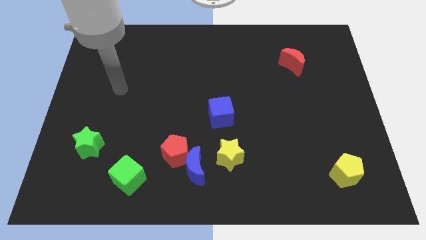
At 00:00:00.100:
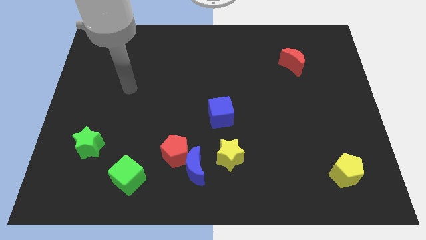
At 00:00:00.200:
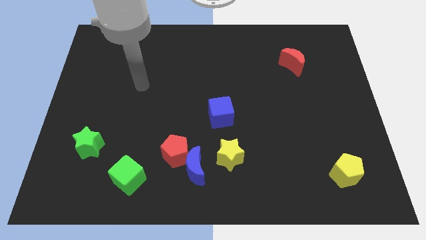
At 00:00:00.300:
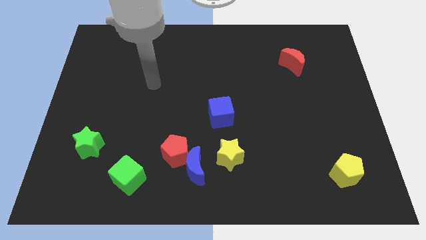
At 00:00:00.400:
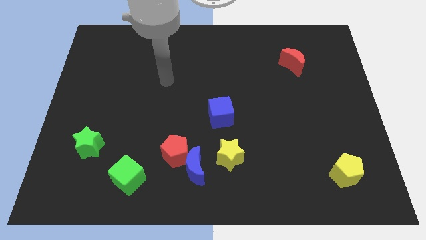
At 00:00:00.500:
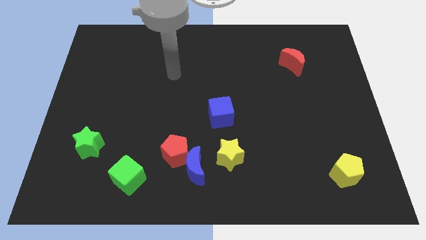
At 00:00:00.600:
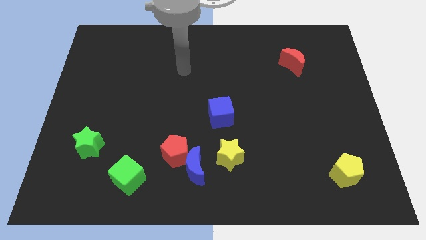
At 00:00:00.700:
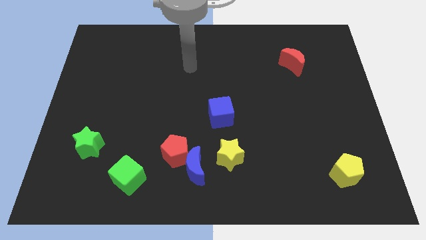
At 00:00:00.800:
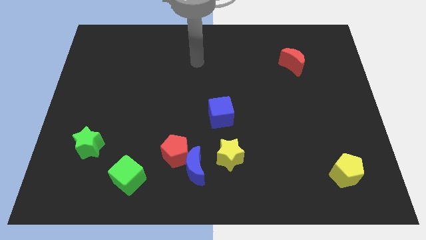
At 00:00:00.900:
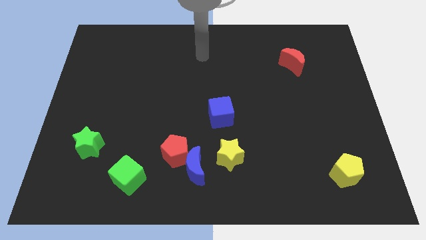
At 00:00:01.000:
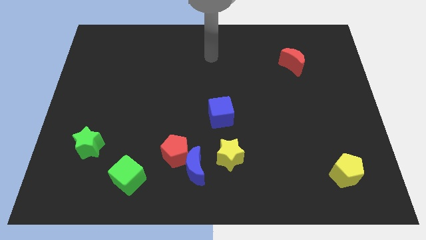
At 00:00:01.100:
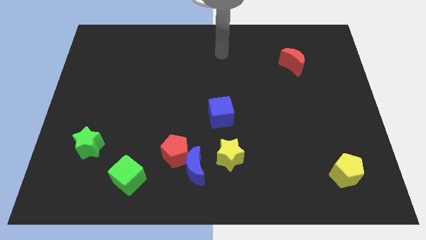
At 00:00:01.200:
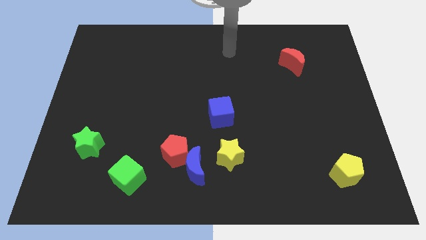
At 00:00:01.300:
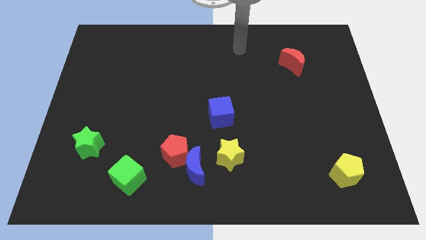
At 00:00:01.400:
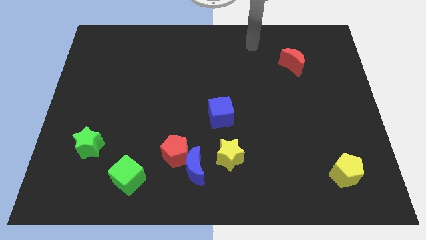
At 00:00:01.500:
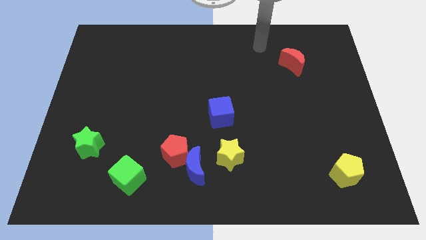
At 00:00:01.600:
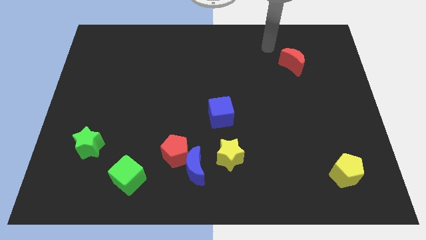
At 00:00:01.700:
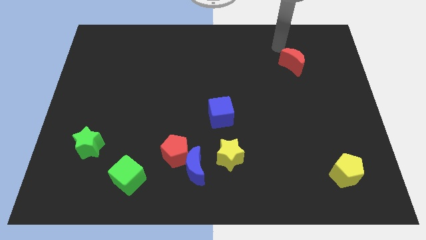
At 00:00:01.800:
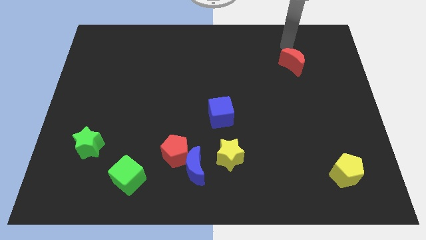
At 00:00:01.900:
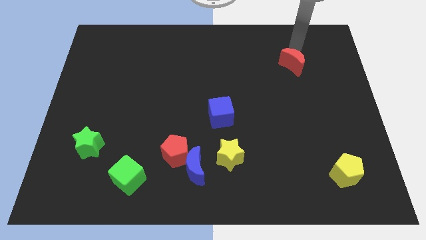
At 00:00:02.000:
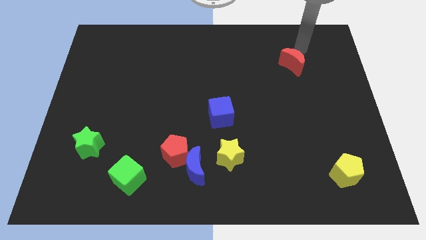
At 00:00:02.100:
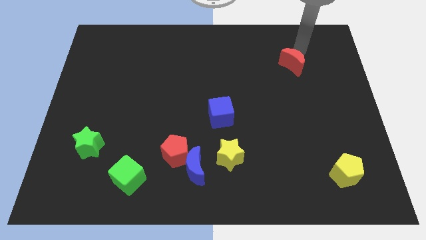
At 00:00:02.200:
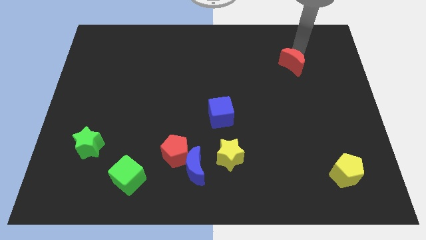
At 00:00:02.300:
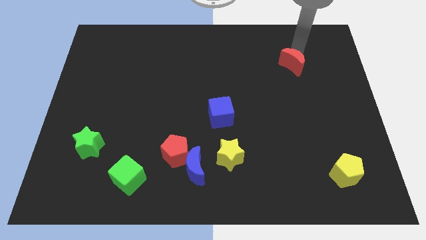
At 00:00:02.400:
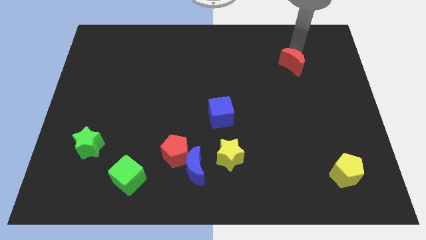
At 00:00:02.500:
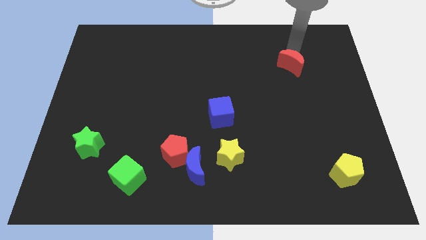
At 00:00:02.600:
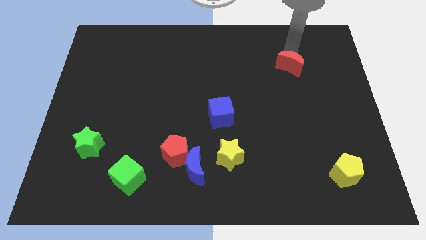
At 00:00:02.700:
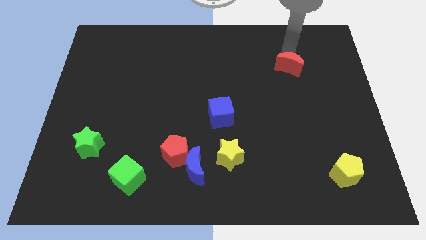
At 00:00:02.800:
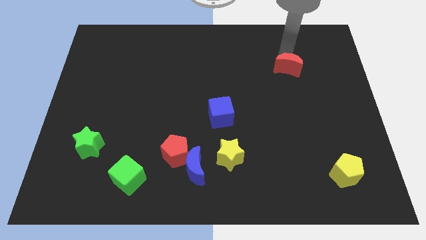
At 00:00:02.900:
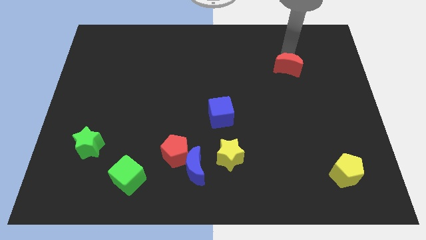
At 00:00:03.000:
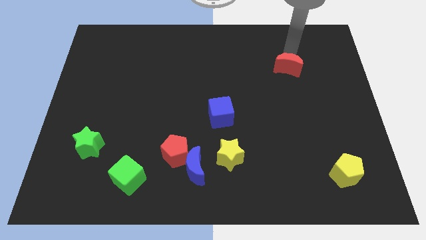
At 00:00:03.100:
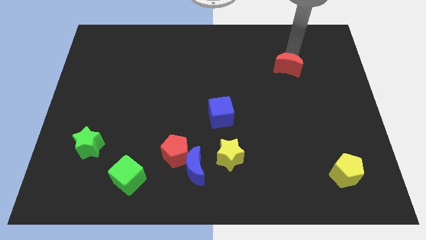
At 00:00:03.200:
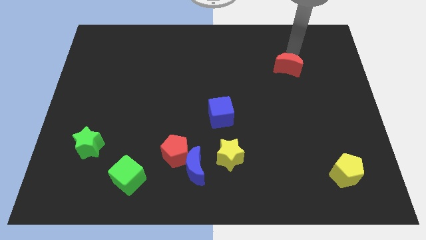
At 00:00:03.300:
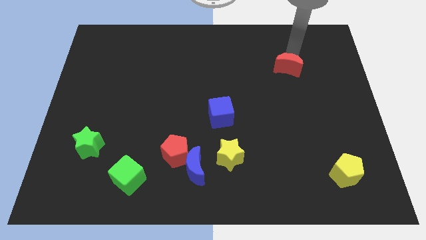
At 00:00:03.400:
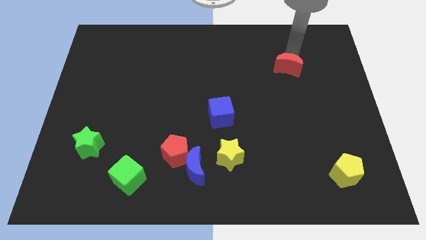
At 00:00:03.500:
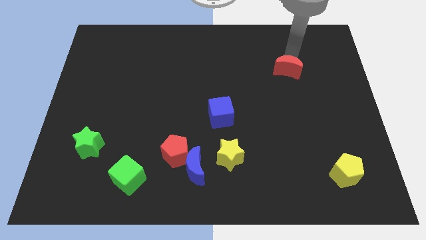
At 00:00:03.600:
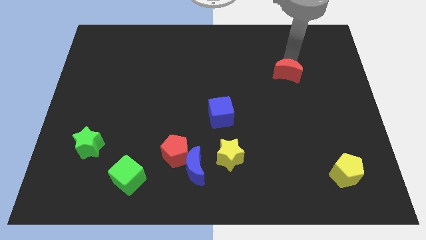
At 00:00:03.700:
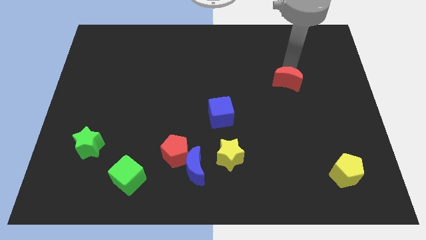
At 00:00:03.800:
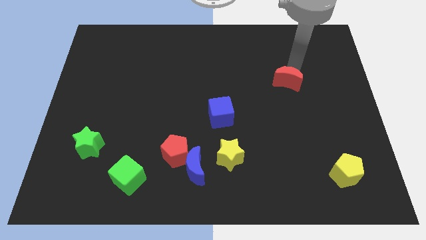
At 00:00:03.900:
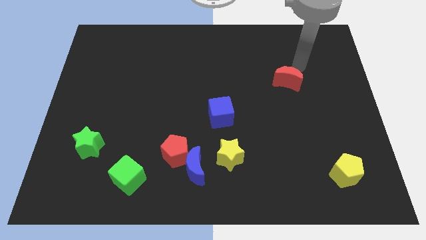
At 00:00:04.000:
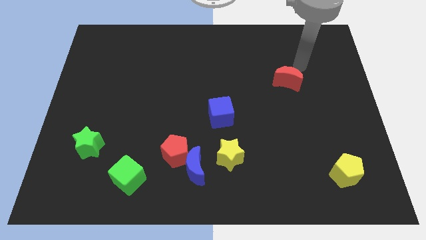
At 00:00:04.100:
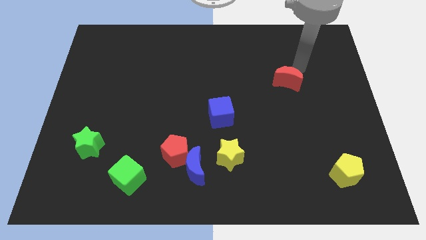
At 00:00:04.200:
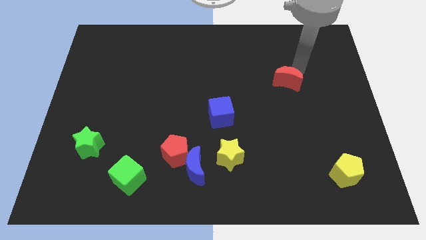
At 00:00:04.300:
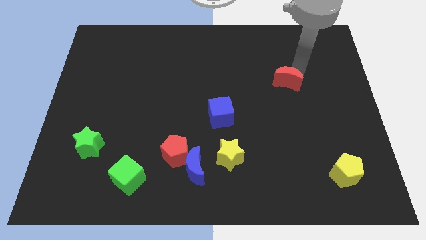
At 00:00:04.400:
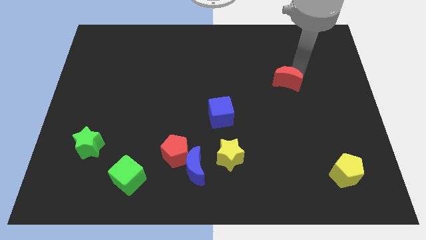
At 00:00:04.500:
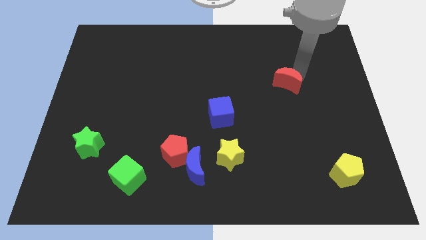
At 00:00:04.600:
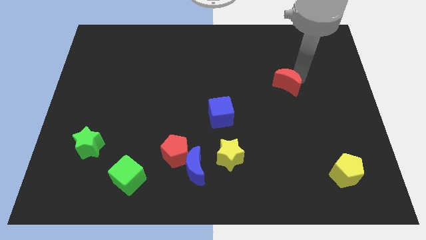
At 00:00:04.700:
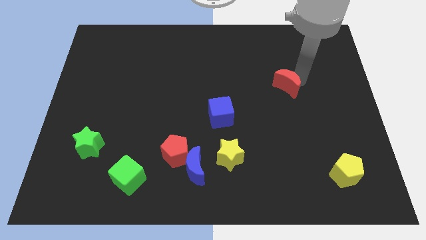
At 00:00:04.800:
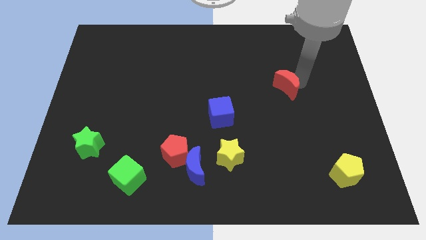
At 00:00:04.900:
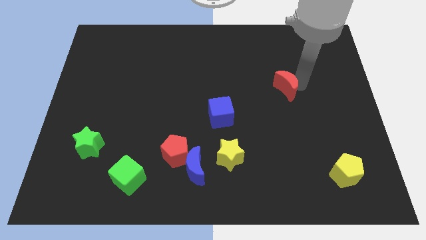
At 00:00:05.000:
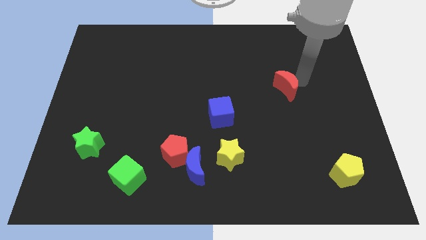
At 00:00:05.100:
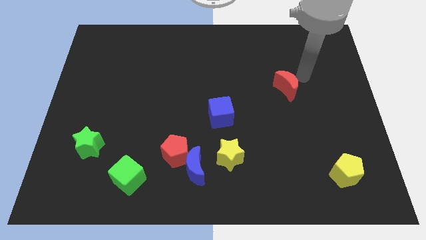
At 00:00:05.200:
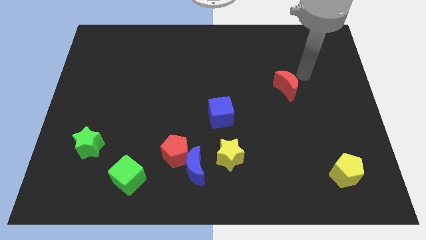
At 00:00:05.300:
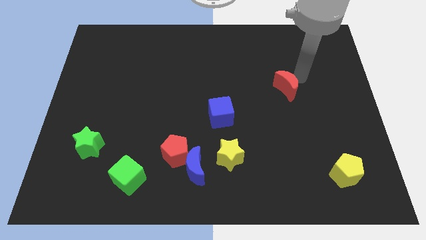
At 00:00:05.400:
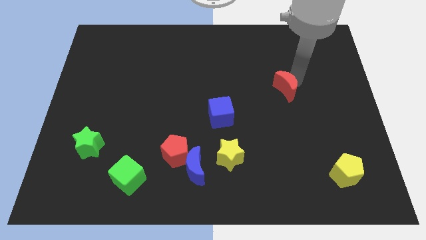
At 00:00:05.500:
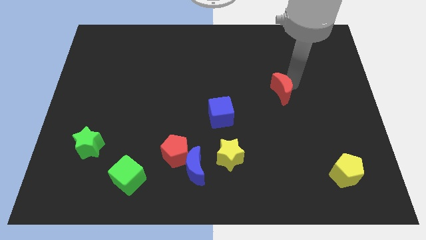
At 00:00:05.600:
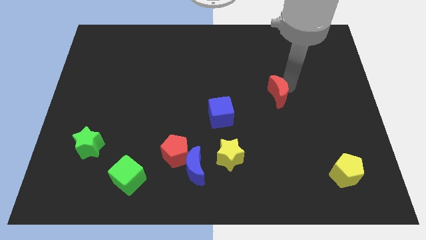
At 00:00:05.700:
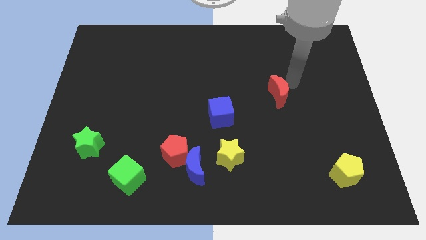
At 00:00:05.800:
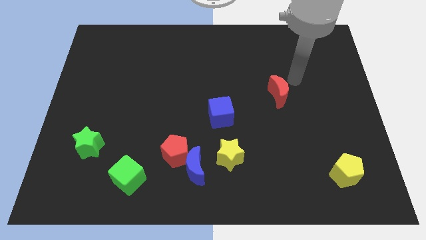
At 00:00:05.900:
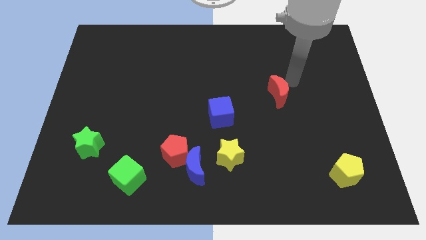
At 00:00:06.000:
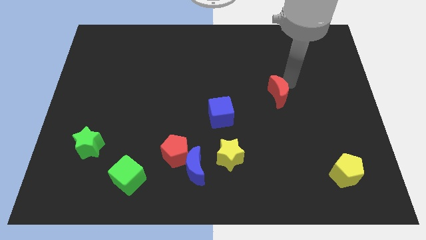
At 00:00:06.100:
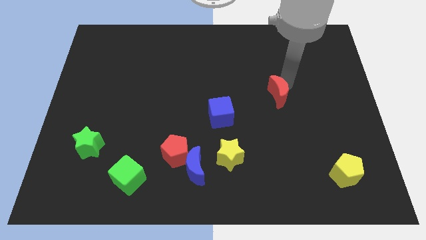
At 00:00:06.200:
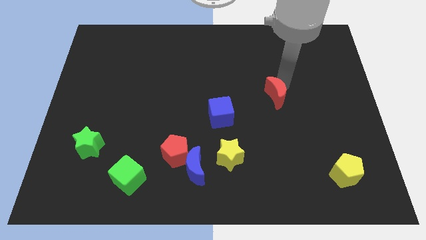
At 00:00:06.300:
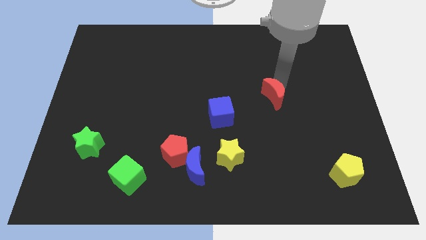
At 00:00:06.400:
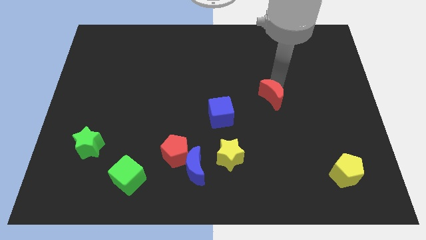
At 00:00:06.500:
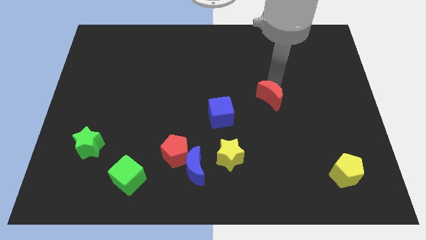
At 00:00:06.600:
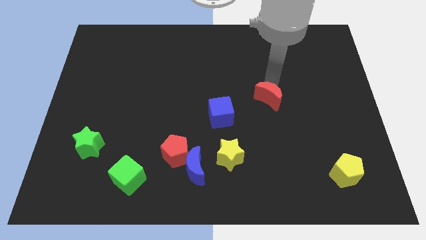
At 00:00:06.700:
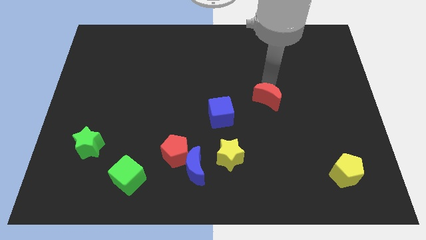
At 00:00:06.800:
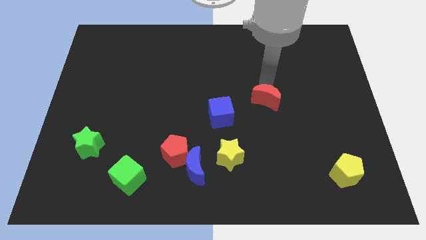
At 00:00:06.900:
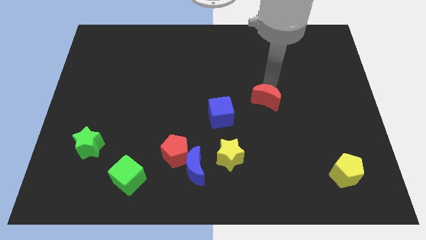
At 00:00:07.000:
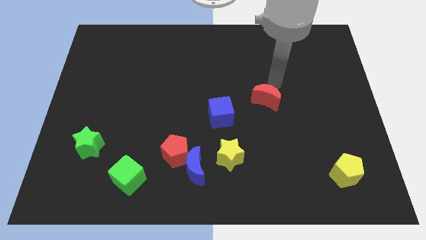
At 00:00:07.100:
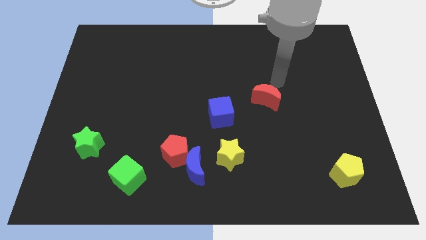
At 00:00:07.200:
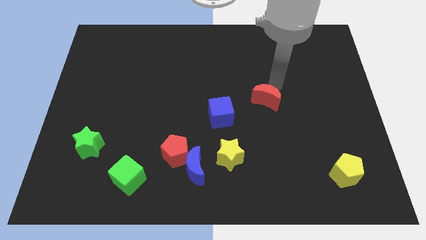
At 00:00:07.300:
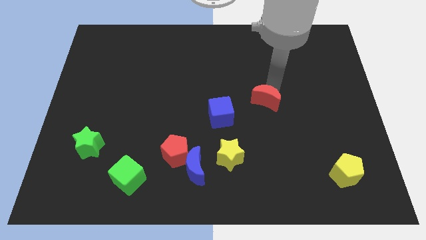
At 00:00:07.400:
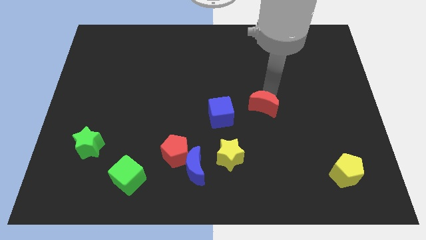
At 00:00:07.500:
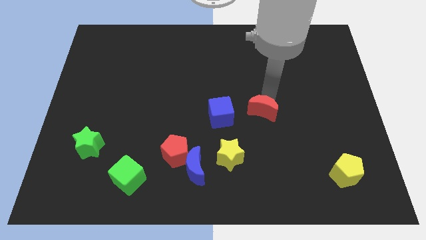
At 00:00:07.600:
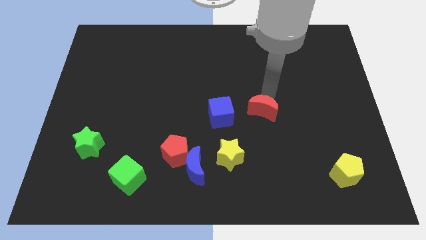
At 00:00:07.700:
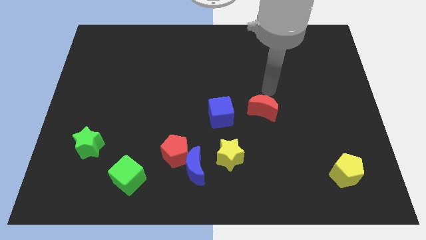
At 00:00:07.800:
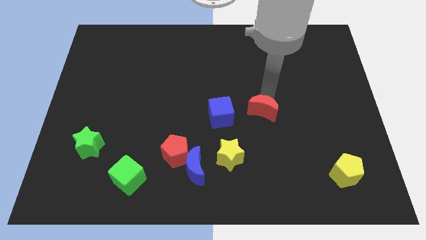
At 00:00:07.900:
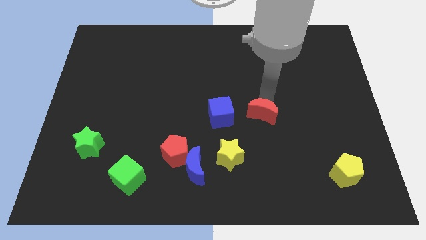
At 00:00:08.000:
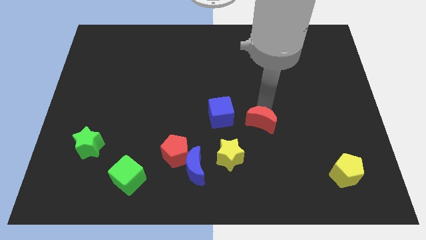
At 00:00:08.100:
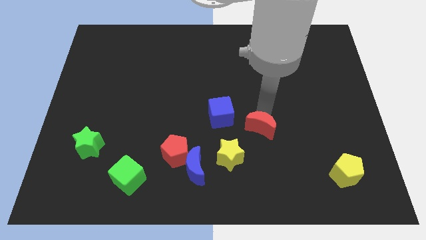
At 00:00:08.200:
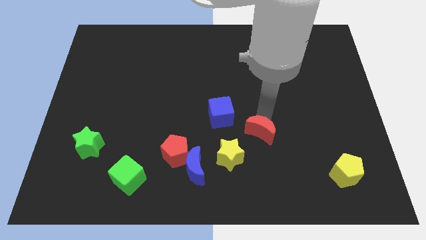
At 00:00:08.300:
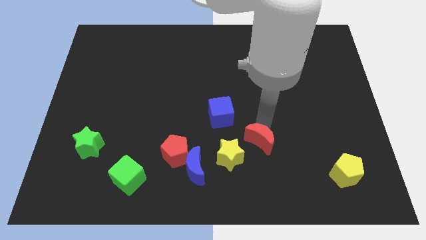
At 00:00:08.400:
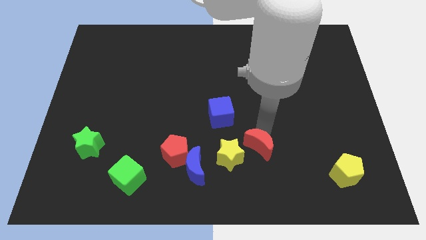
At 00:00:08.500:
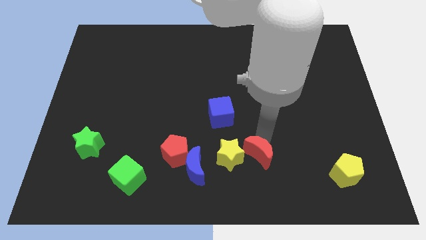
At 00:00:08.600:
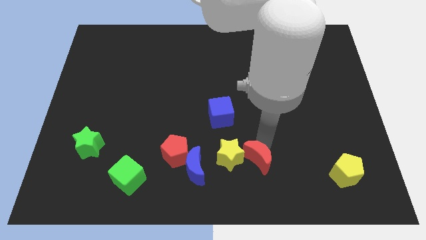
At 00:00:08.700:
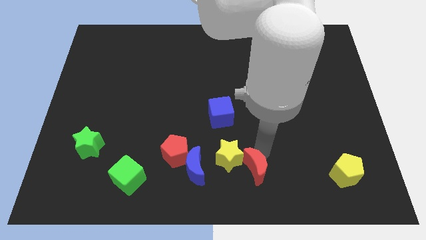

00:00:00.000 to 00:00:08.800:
move the red moon to the bottom side
